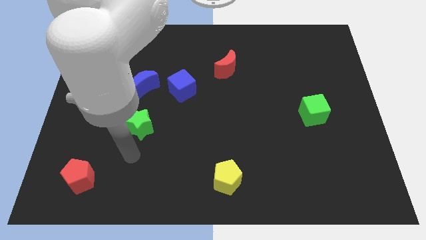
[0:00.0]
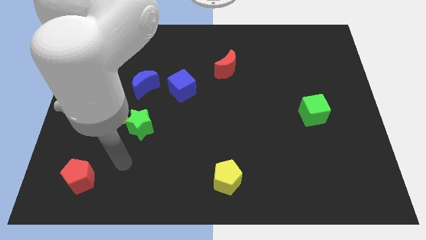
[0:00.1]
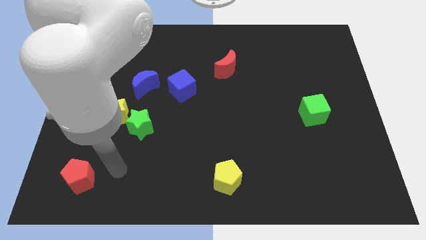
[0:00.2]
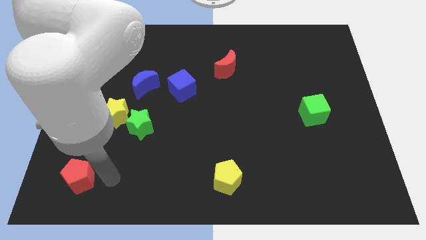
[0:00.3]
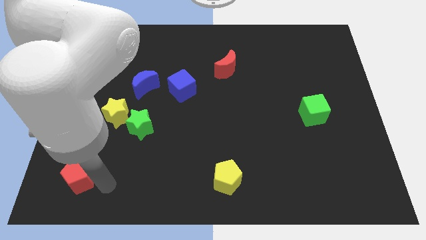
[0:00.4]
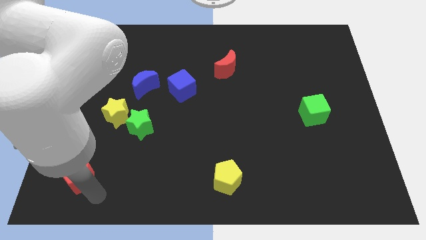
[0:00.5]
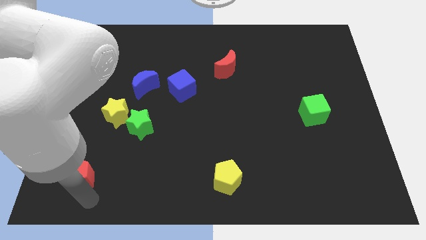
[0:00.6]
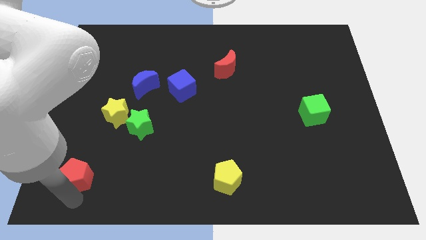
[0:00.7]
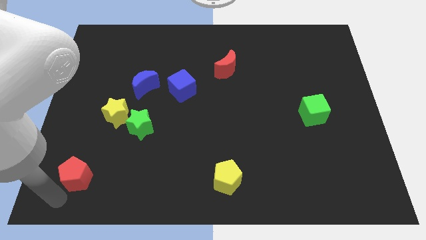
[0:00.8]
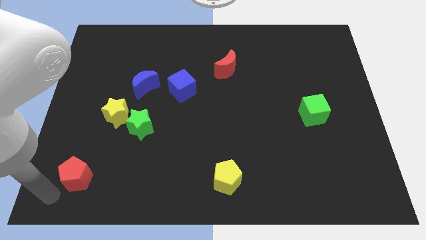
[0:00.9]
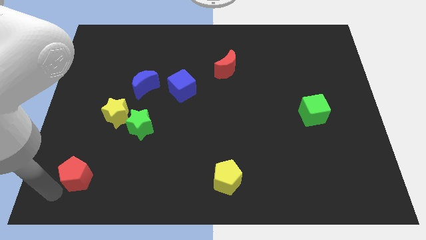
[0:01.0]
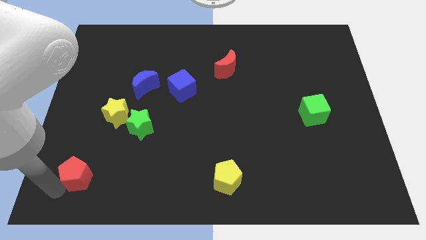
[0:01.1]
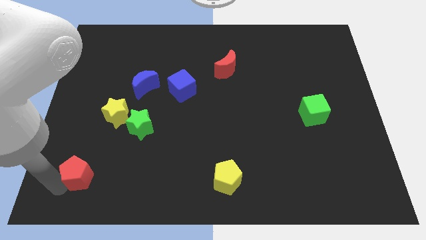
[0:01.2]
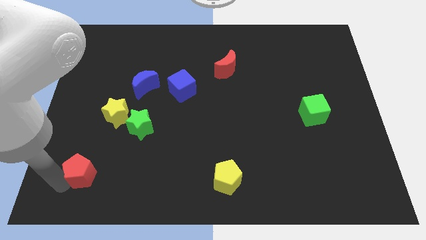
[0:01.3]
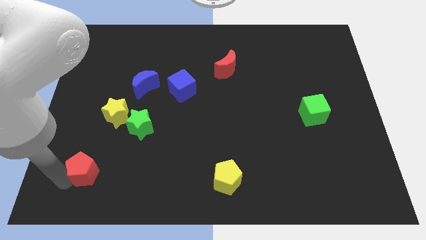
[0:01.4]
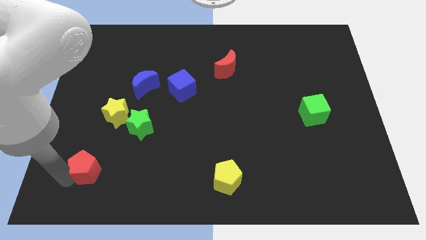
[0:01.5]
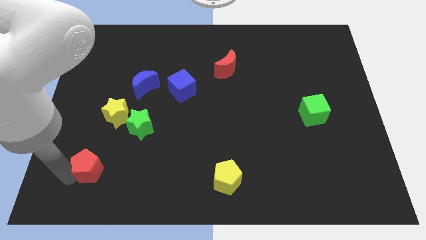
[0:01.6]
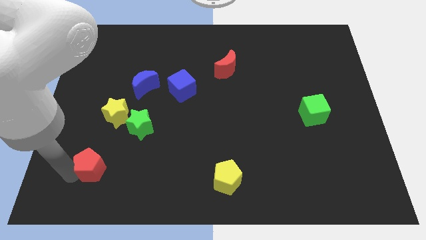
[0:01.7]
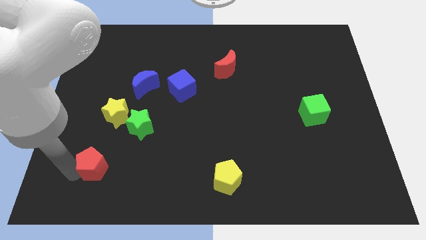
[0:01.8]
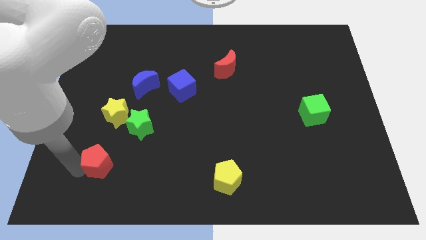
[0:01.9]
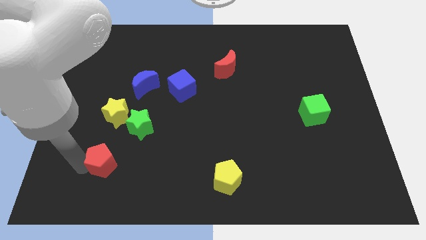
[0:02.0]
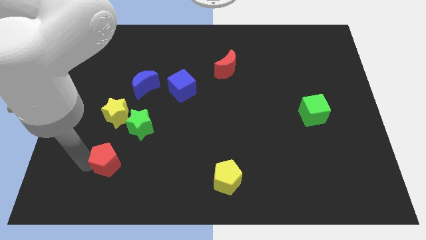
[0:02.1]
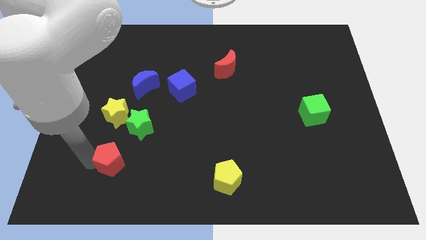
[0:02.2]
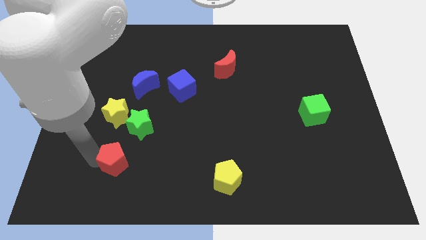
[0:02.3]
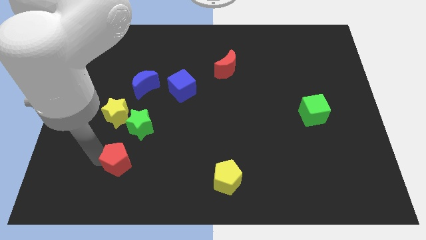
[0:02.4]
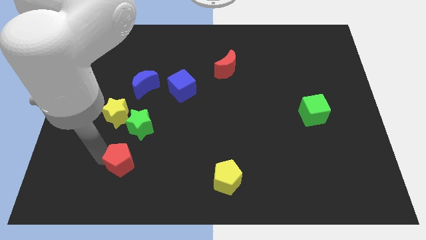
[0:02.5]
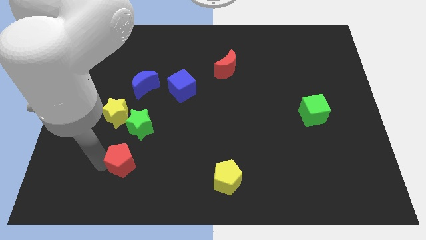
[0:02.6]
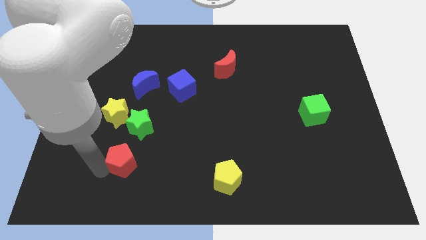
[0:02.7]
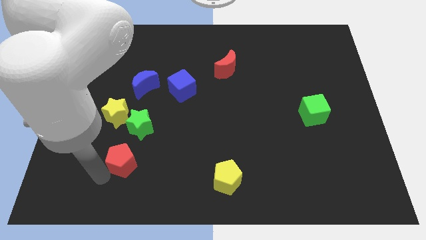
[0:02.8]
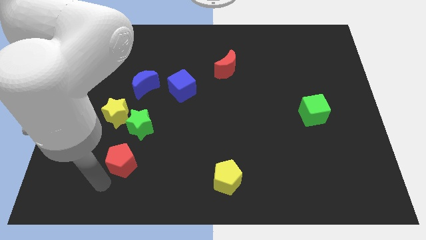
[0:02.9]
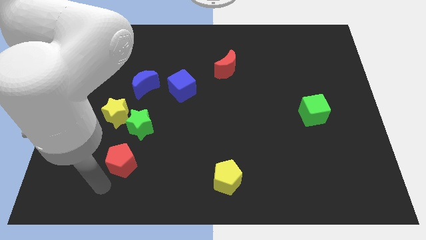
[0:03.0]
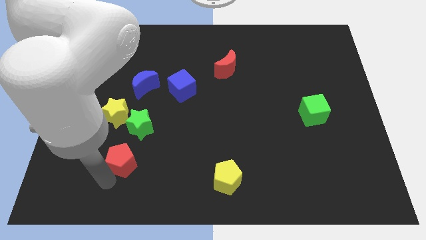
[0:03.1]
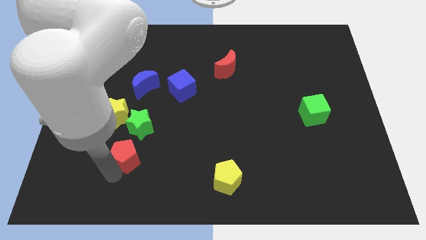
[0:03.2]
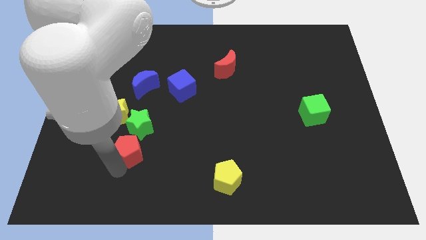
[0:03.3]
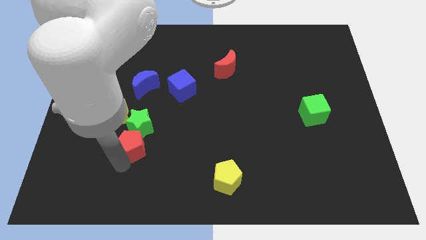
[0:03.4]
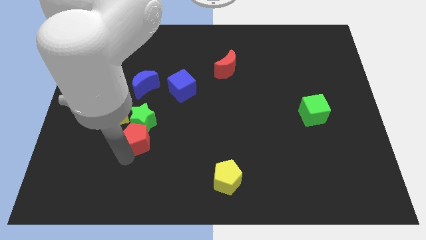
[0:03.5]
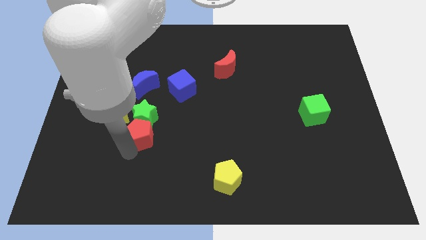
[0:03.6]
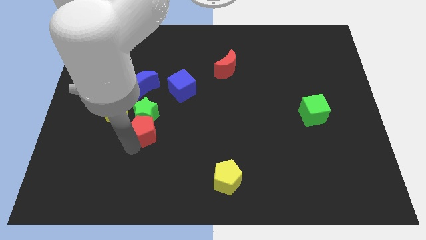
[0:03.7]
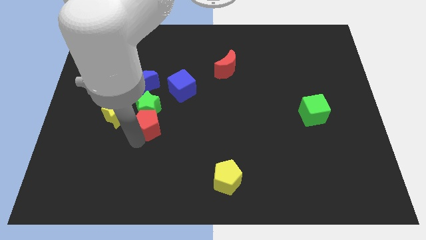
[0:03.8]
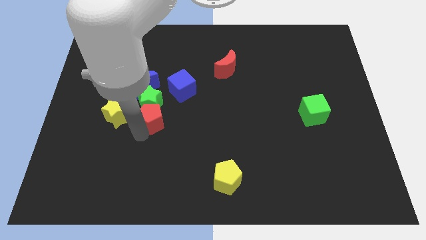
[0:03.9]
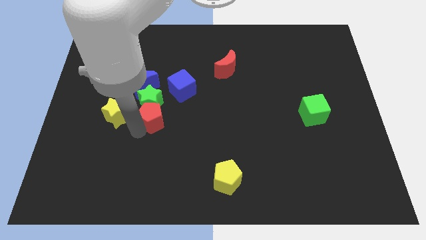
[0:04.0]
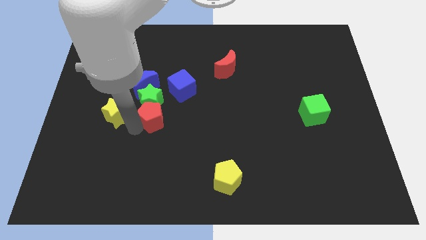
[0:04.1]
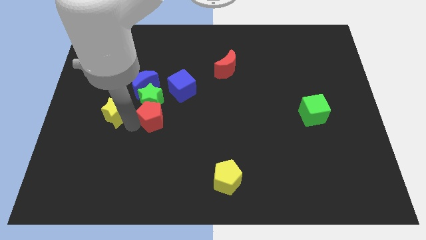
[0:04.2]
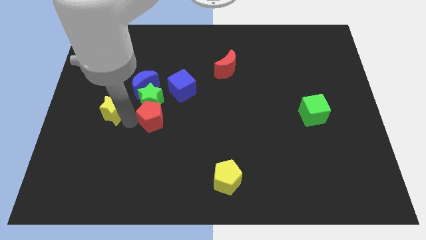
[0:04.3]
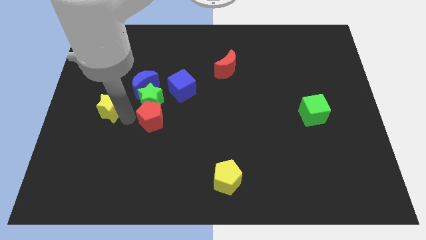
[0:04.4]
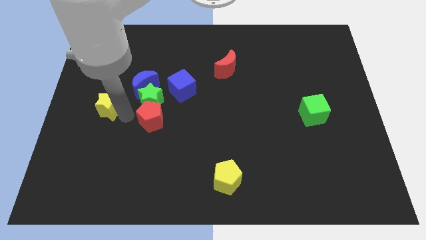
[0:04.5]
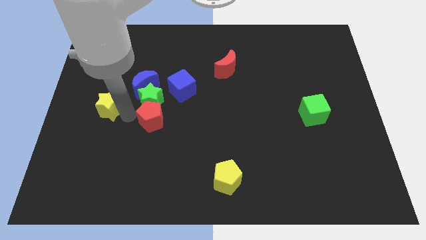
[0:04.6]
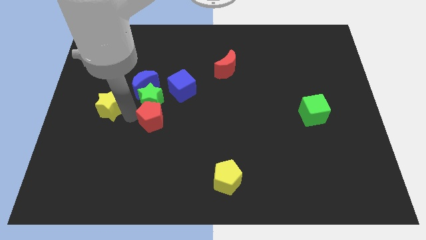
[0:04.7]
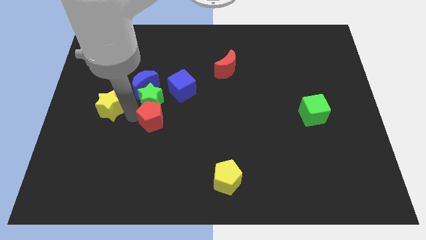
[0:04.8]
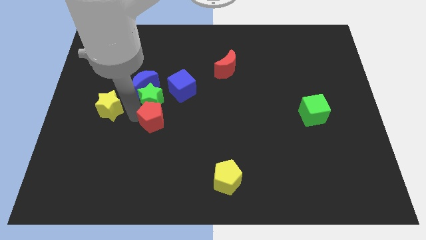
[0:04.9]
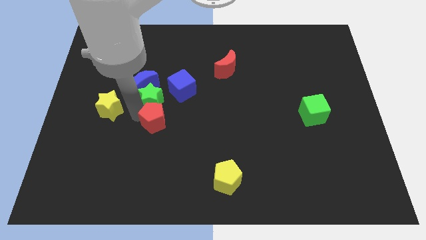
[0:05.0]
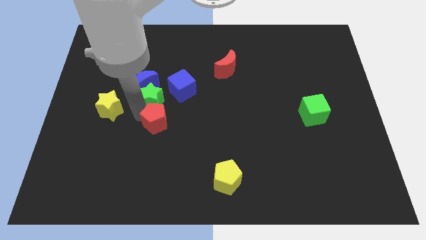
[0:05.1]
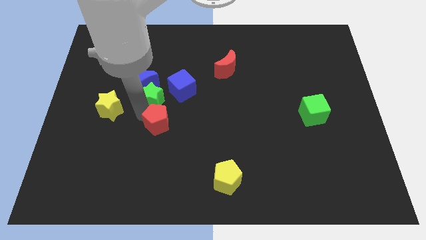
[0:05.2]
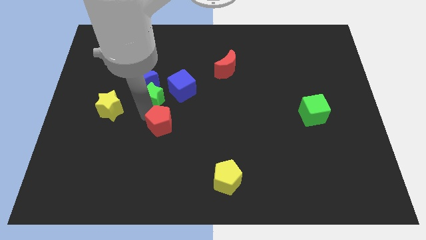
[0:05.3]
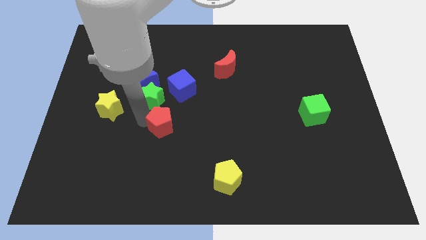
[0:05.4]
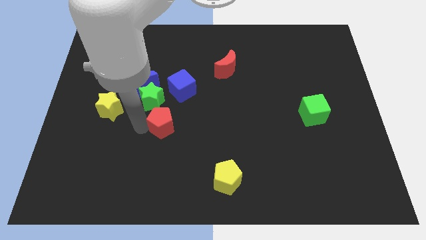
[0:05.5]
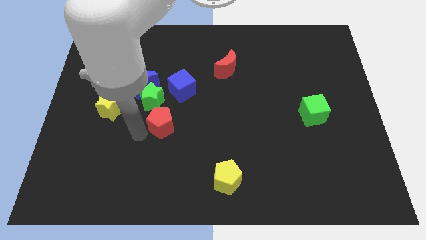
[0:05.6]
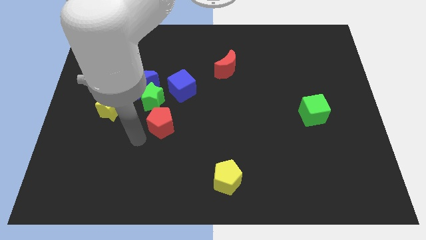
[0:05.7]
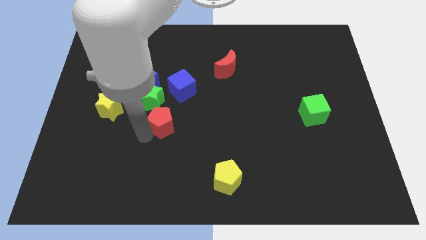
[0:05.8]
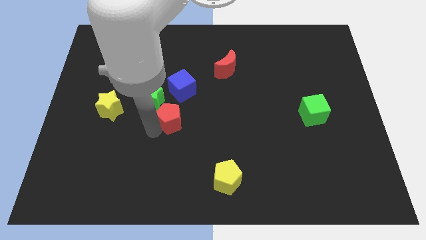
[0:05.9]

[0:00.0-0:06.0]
move the red pentagon to the middle

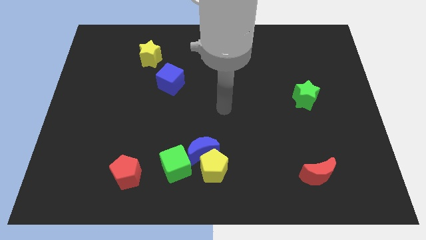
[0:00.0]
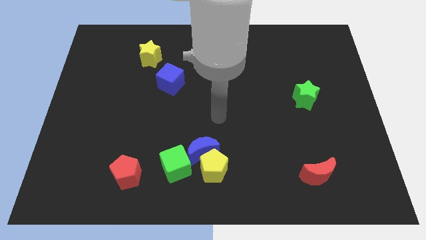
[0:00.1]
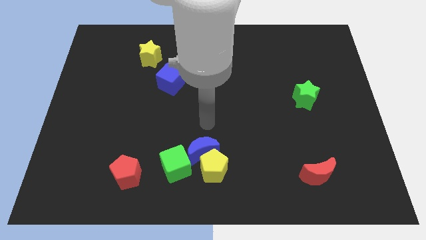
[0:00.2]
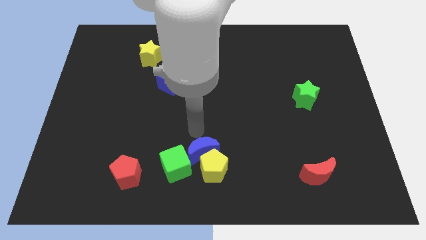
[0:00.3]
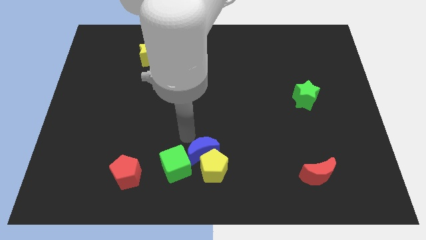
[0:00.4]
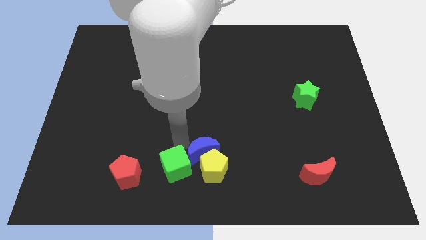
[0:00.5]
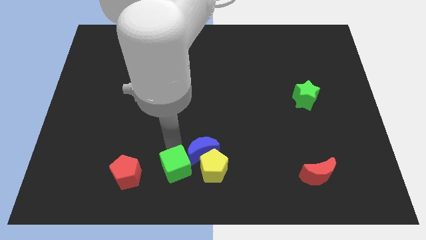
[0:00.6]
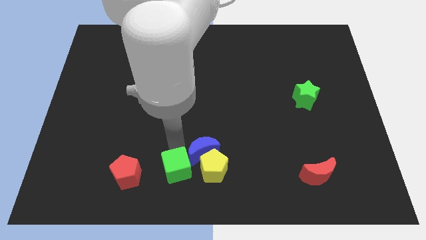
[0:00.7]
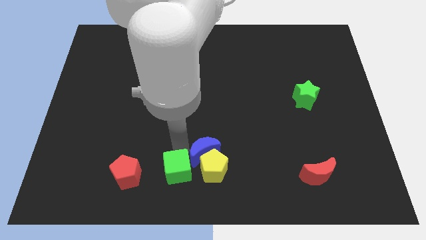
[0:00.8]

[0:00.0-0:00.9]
push the blue moon to the bottom side
